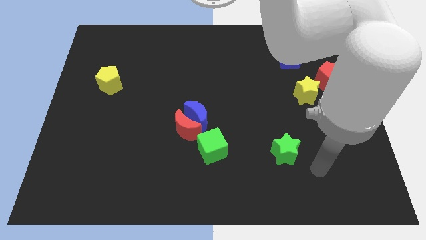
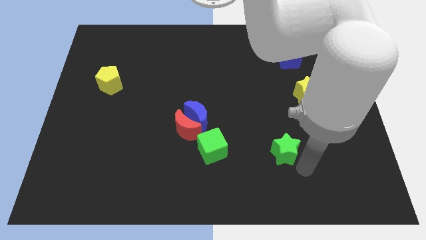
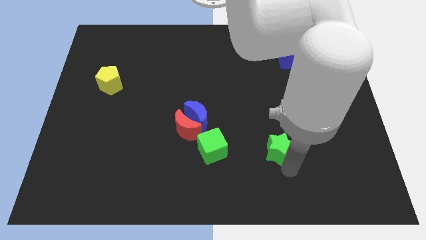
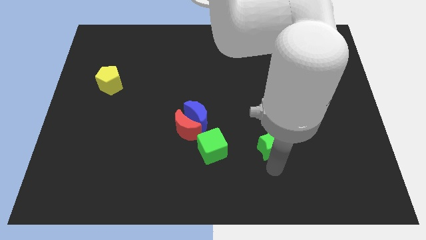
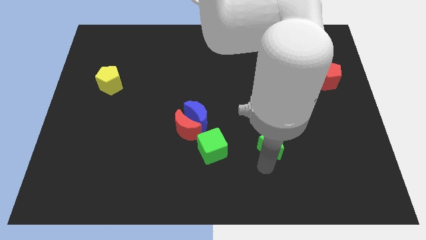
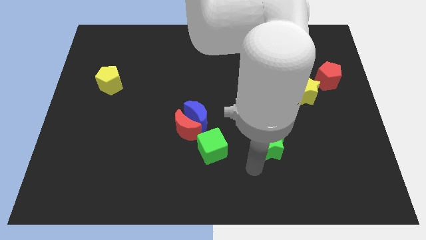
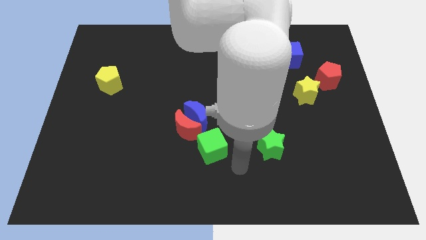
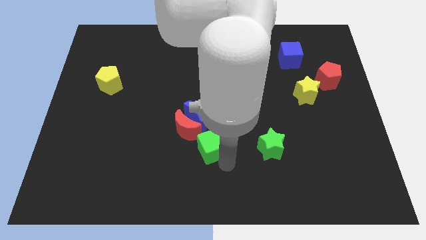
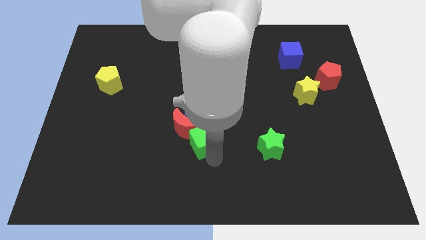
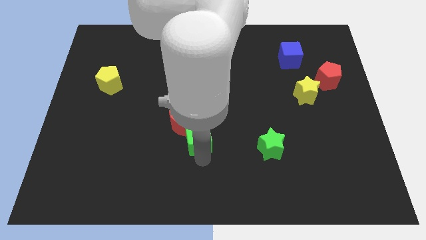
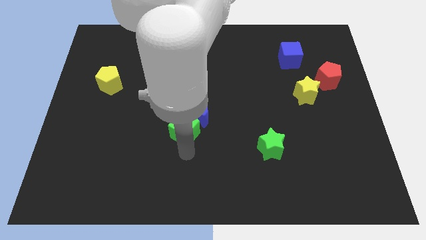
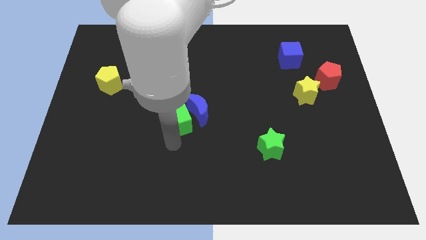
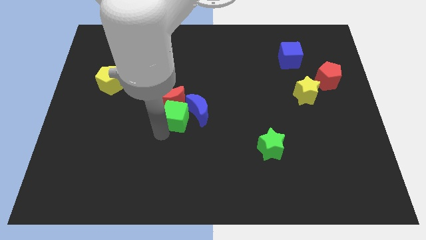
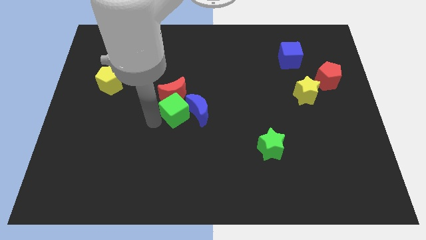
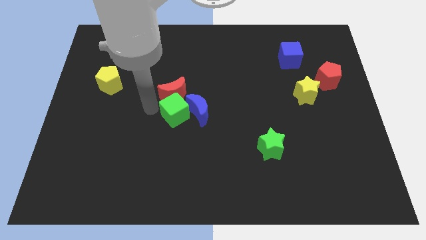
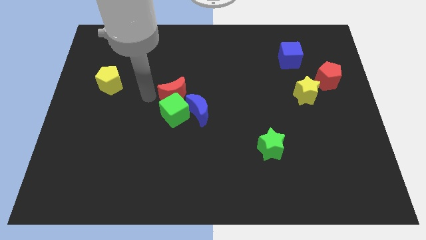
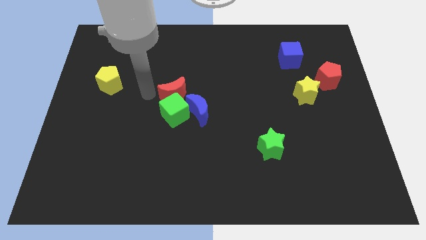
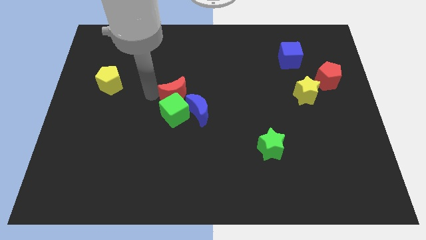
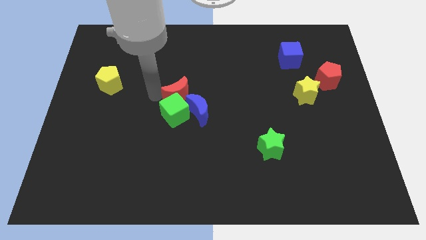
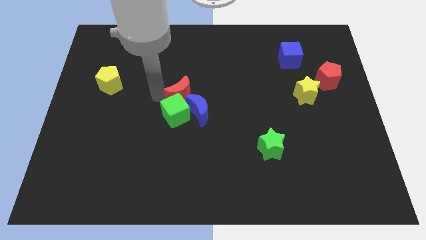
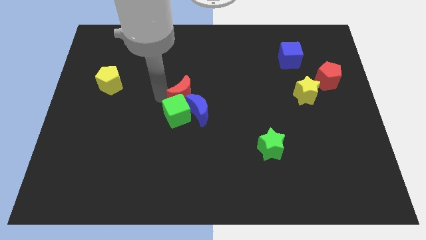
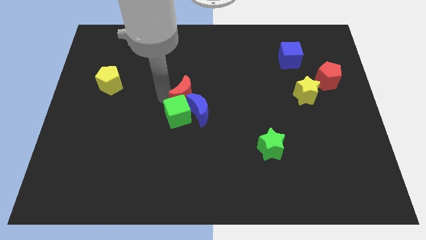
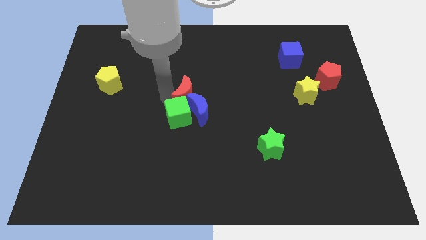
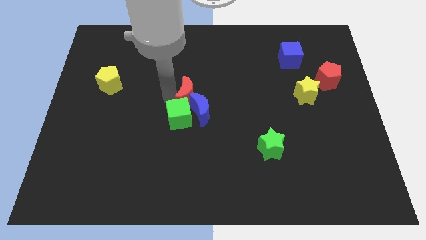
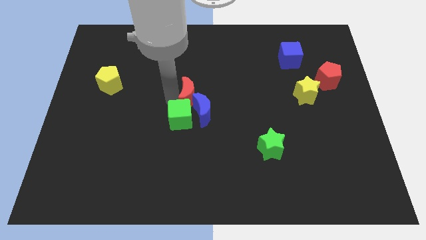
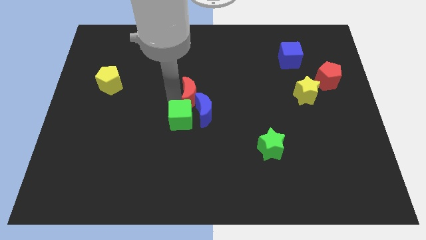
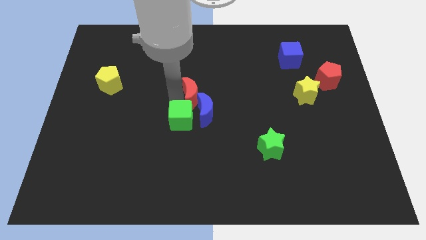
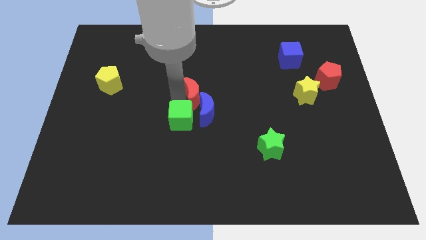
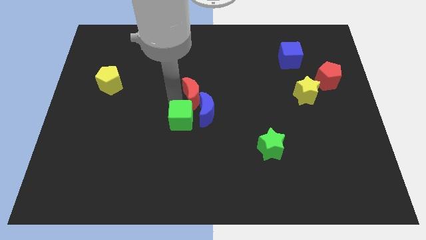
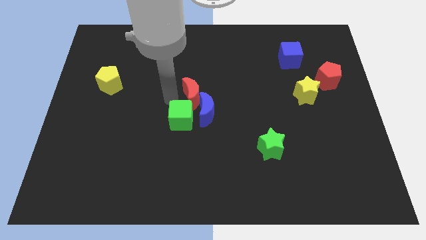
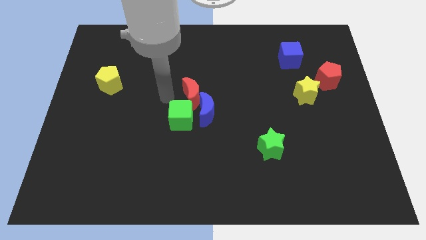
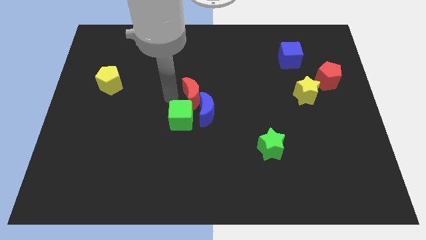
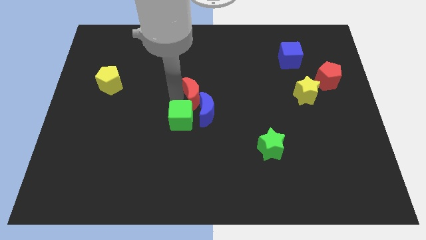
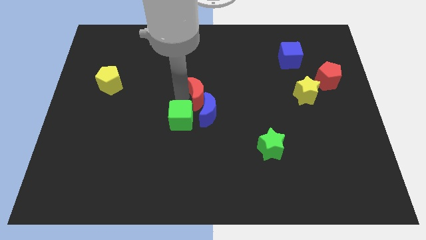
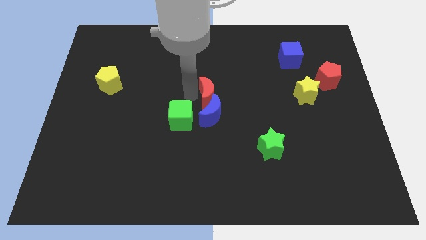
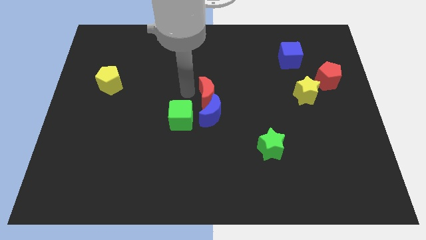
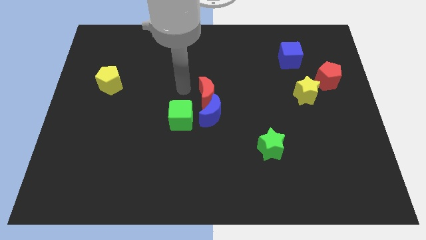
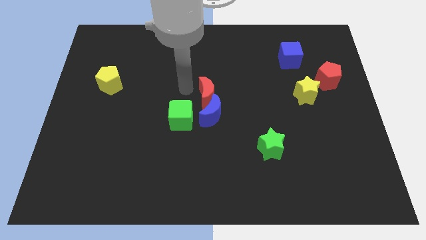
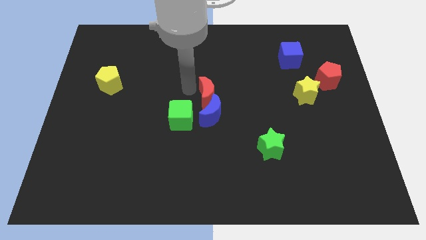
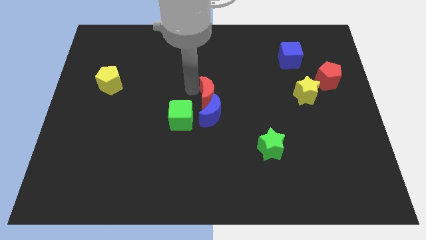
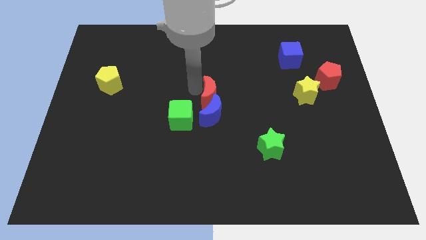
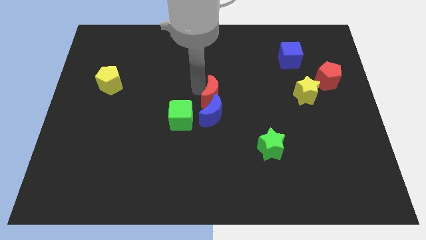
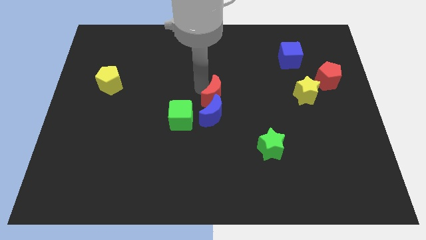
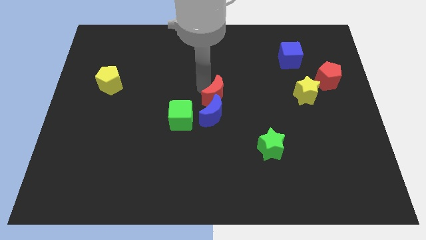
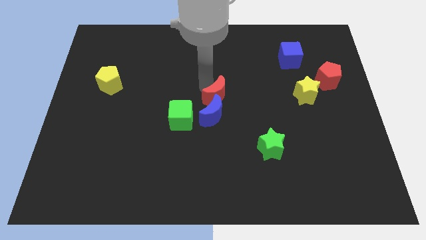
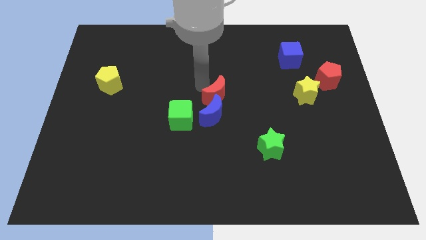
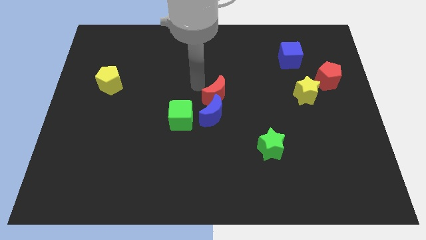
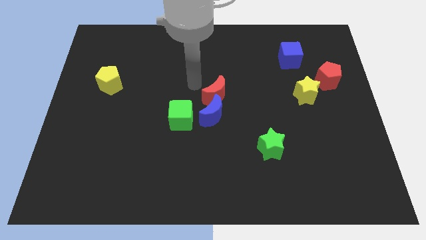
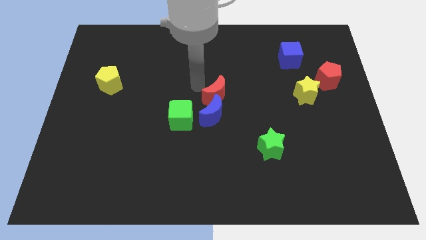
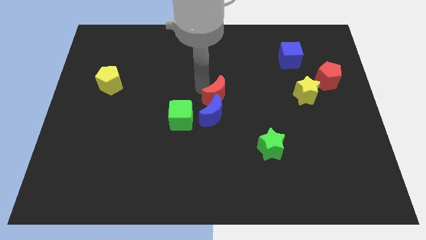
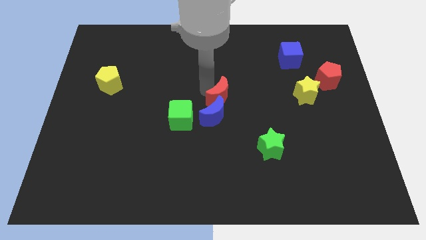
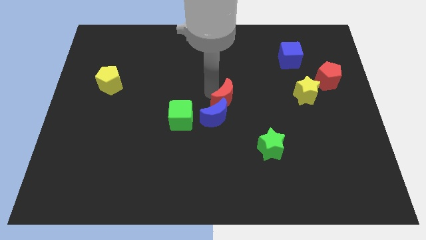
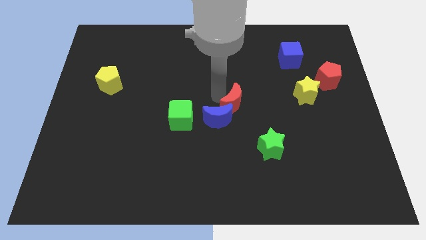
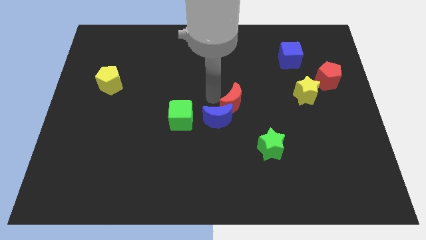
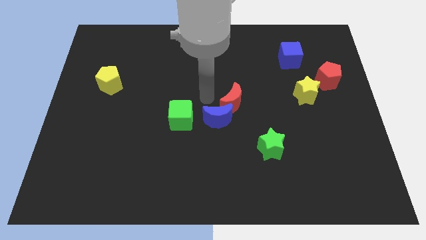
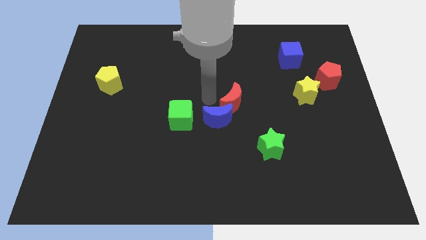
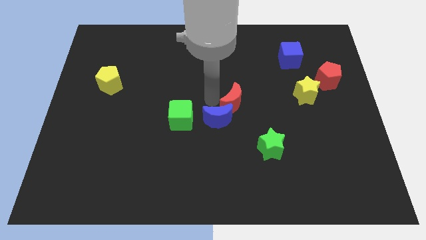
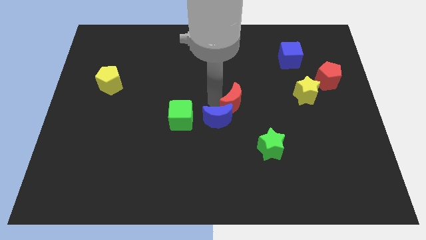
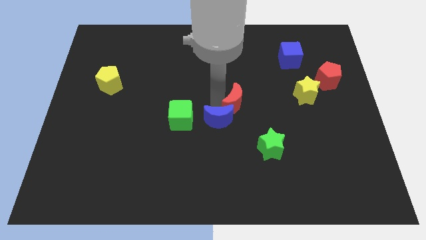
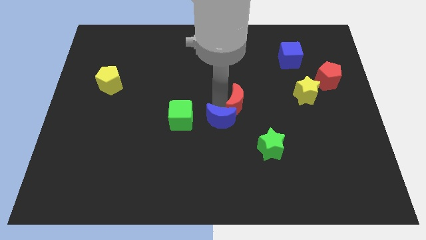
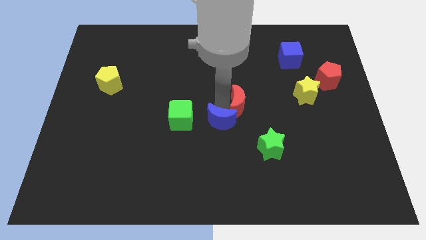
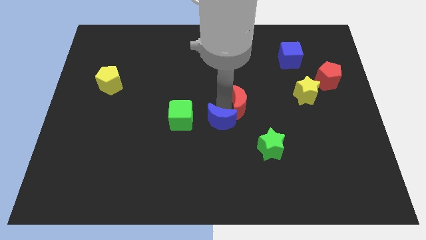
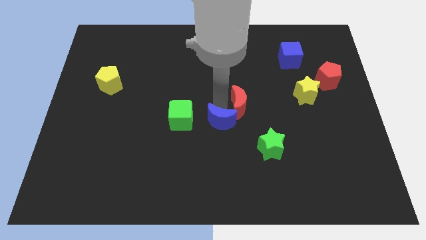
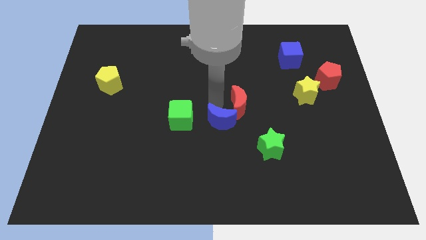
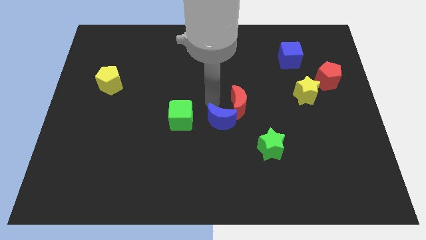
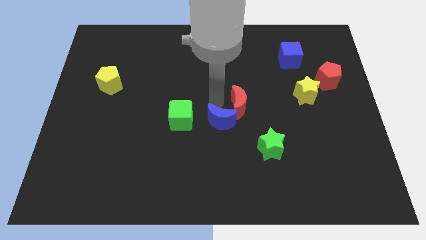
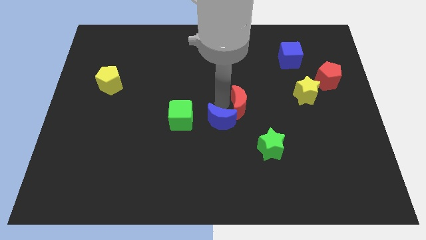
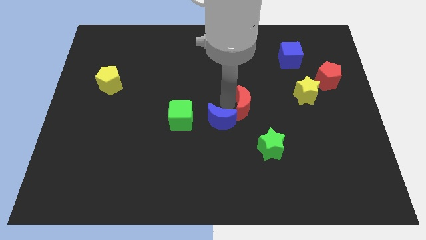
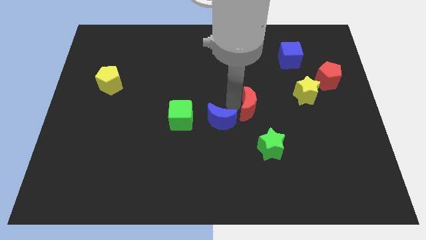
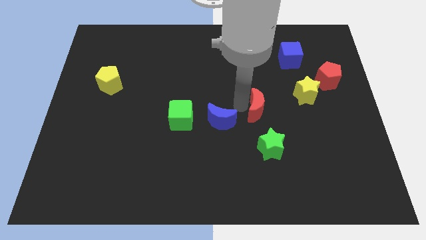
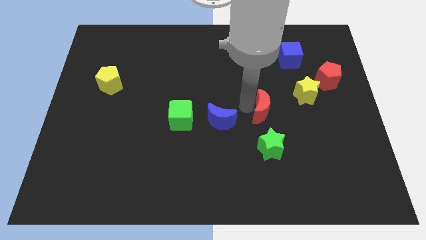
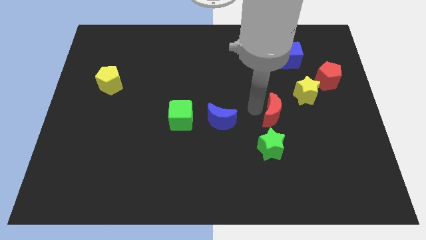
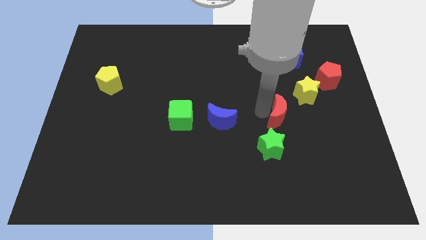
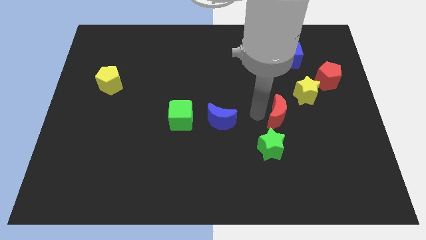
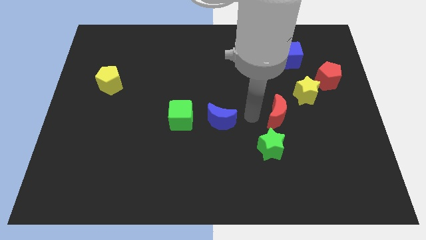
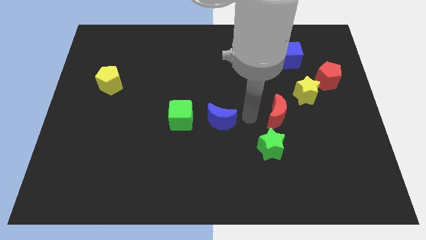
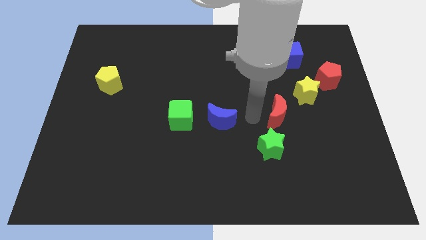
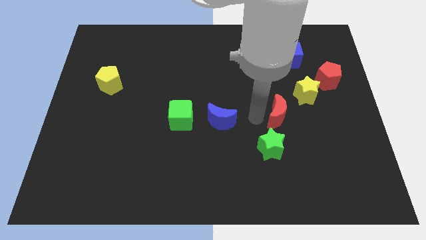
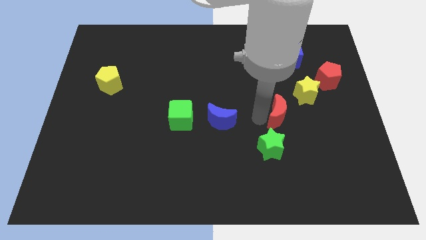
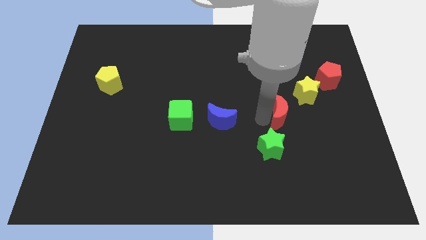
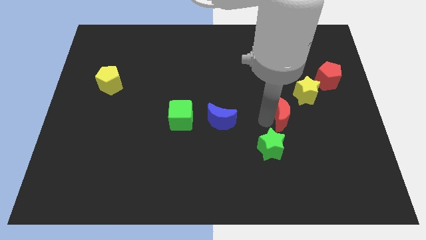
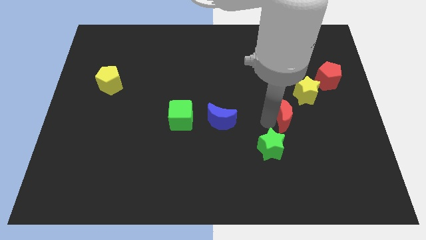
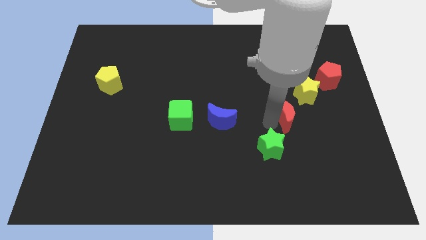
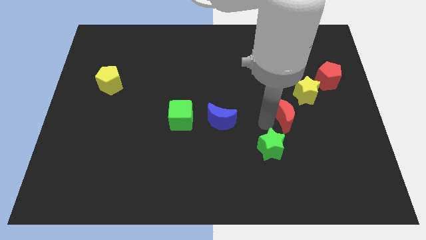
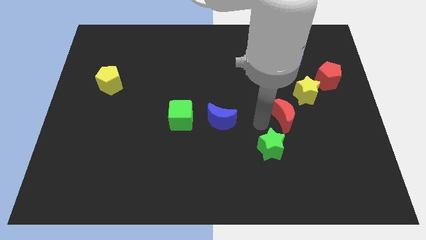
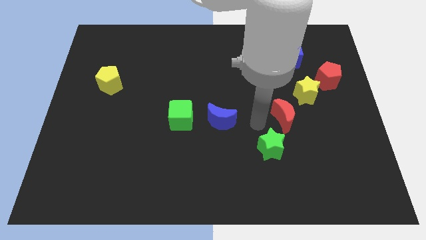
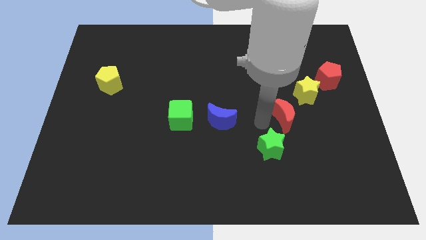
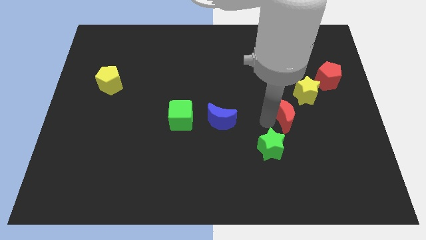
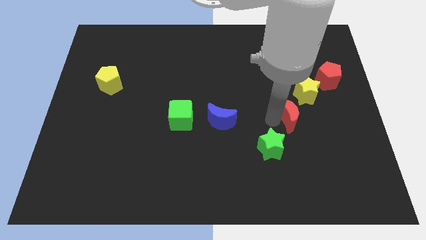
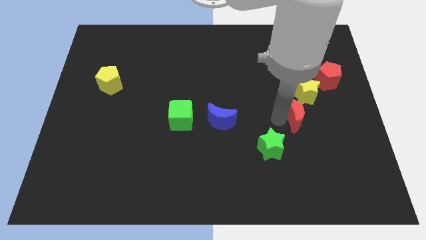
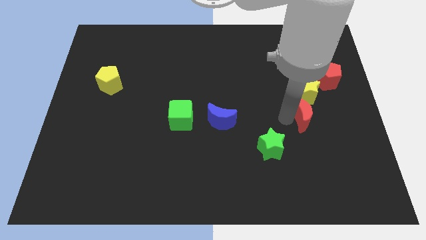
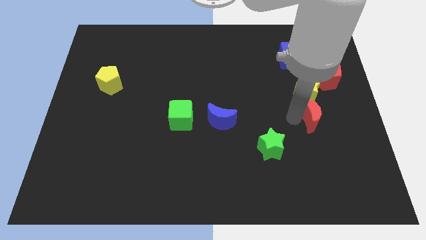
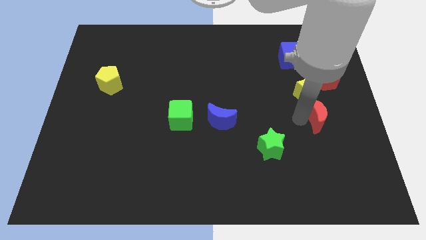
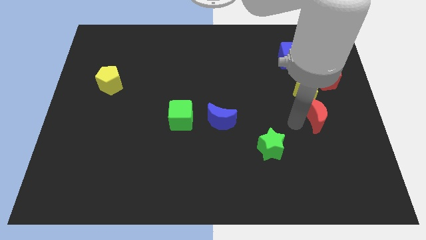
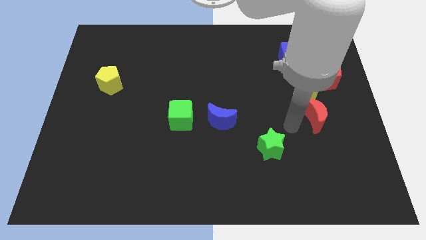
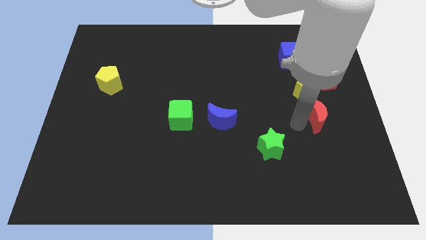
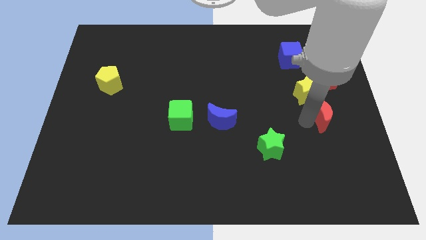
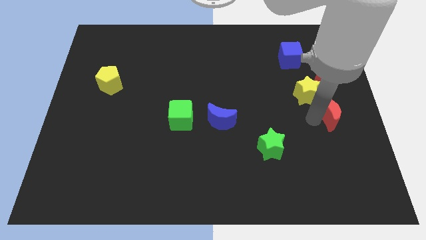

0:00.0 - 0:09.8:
push the red moon to the right side of the board
